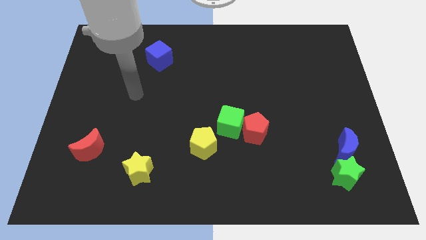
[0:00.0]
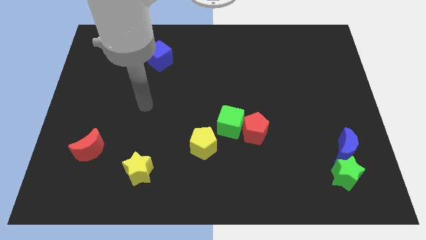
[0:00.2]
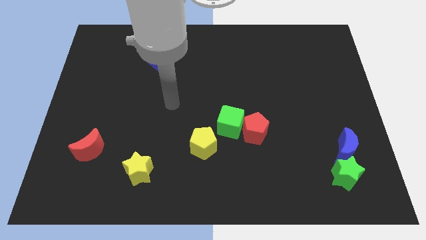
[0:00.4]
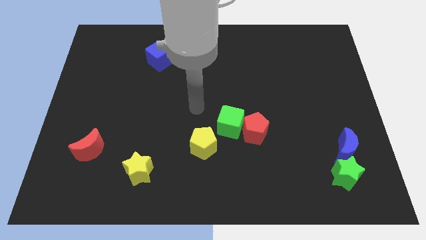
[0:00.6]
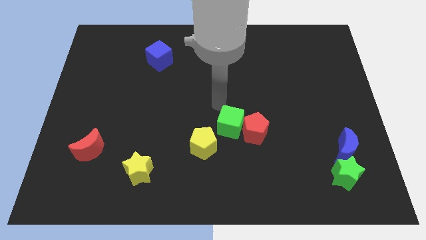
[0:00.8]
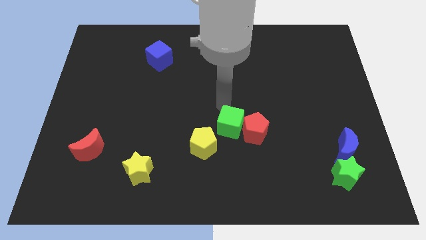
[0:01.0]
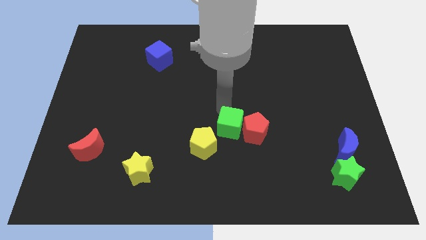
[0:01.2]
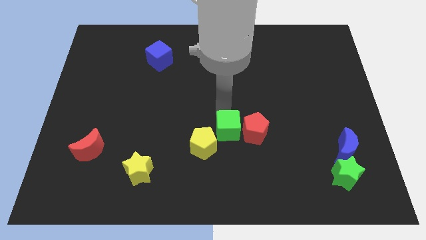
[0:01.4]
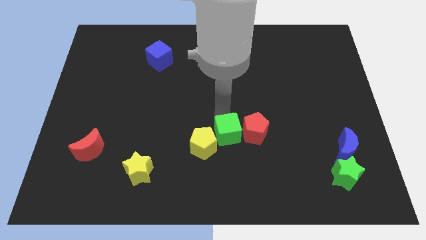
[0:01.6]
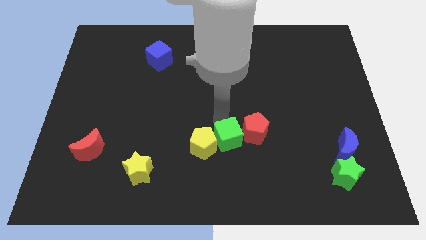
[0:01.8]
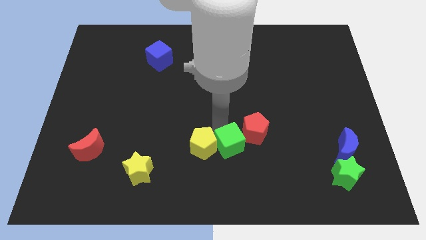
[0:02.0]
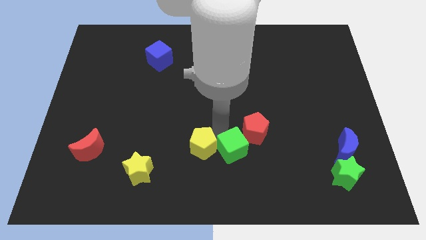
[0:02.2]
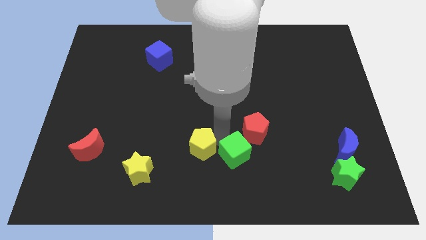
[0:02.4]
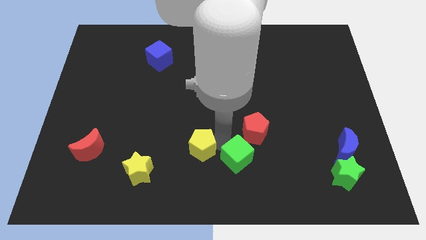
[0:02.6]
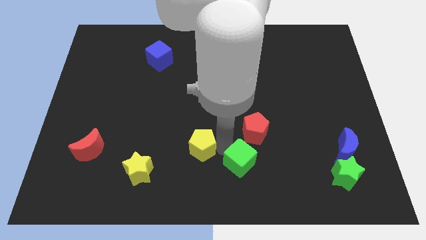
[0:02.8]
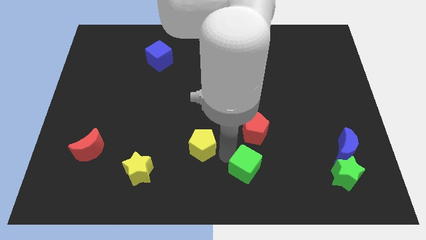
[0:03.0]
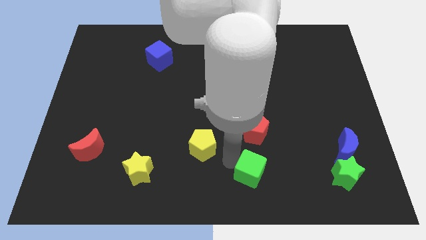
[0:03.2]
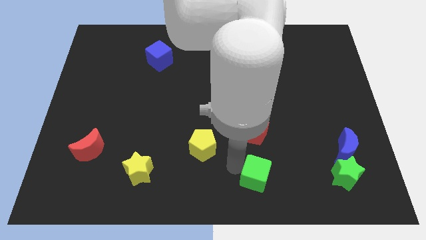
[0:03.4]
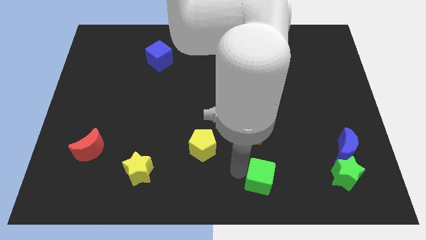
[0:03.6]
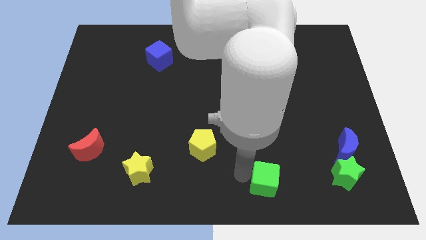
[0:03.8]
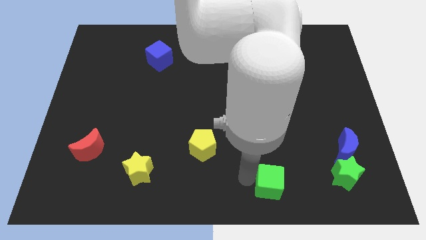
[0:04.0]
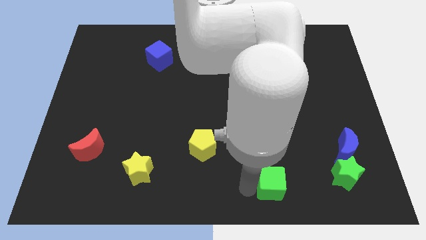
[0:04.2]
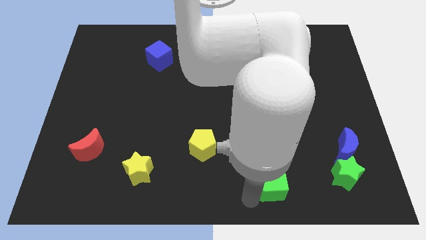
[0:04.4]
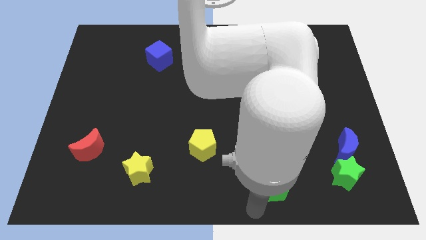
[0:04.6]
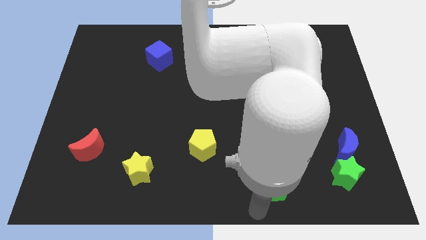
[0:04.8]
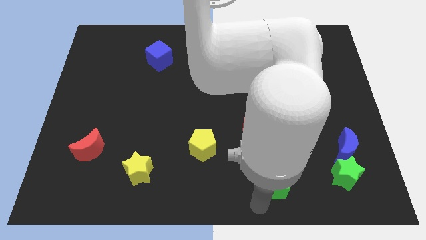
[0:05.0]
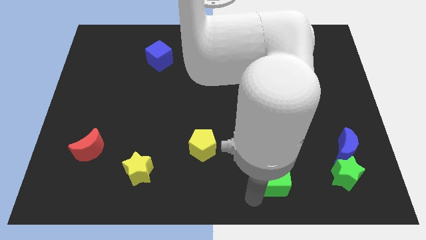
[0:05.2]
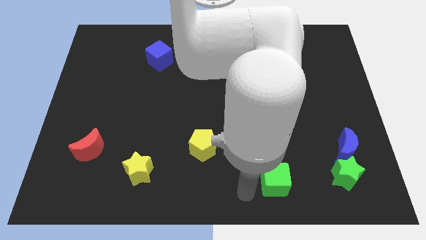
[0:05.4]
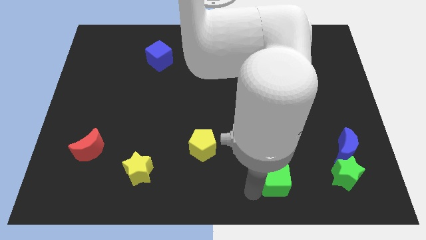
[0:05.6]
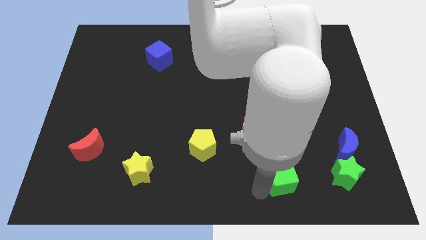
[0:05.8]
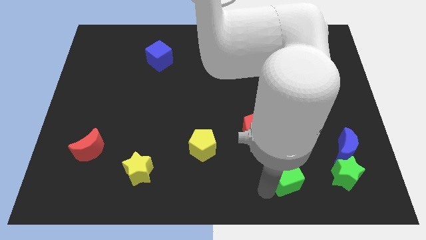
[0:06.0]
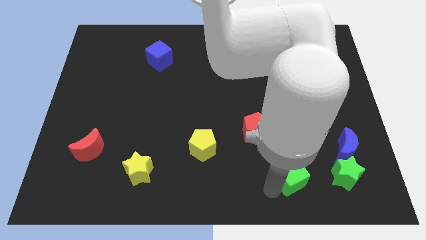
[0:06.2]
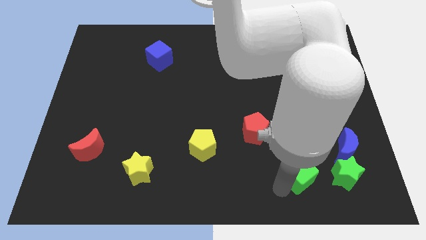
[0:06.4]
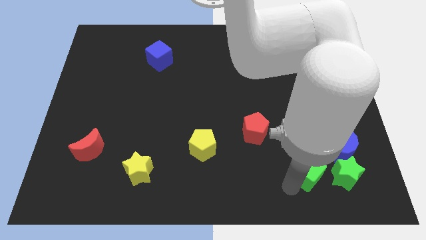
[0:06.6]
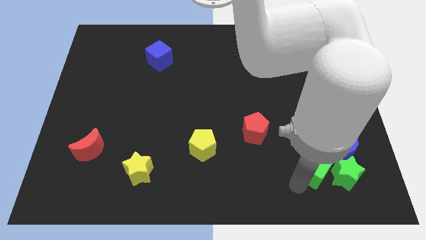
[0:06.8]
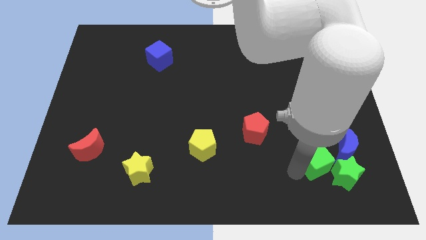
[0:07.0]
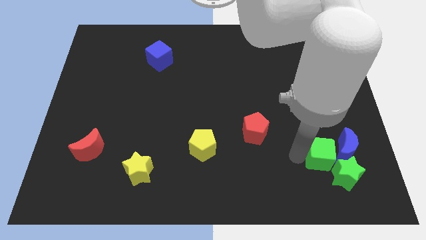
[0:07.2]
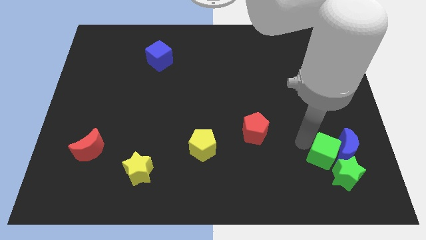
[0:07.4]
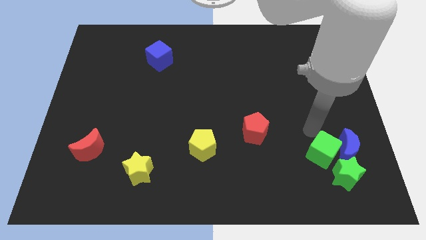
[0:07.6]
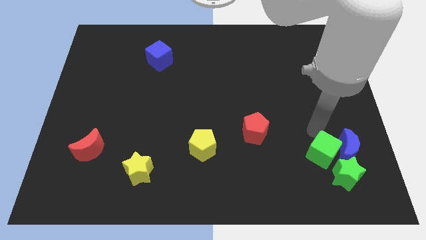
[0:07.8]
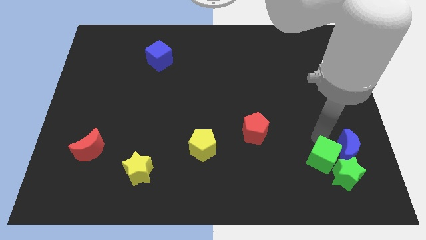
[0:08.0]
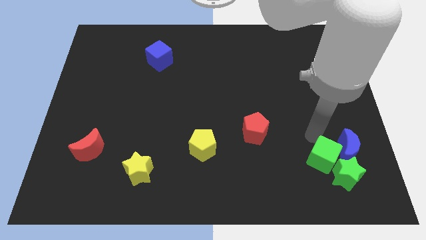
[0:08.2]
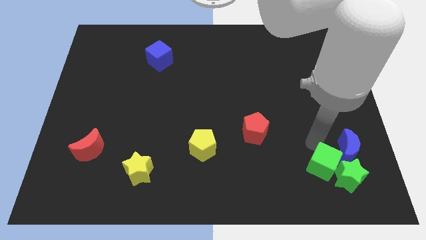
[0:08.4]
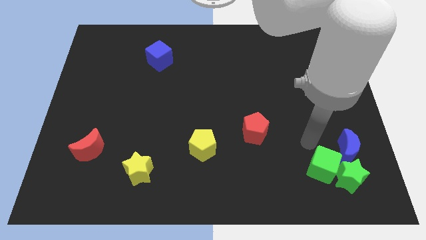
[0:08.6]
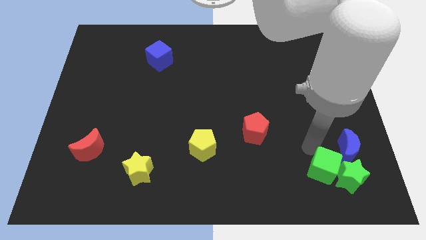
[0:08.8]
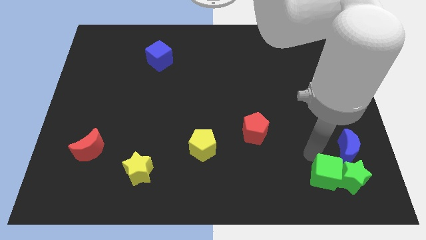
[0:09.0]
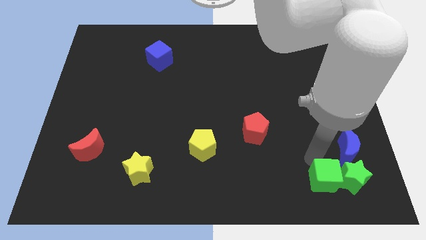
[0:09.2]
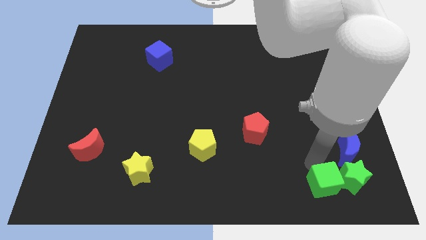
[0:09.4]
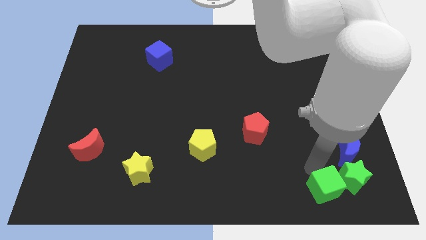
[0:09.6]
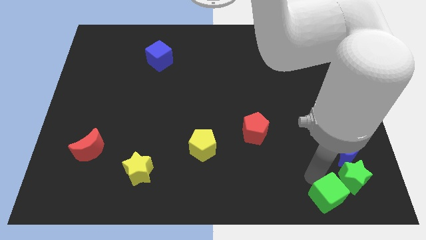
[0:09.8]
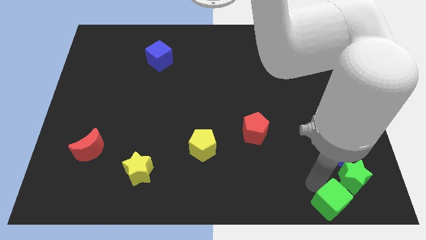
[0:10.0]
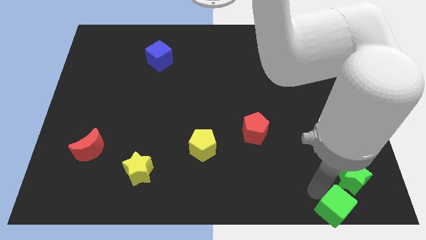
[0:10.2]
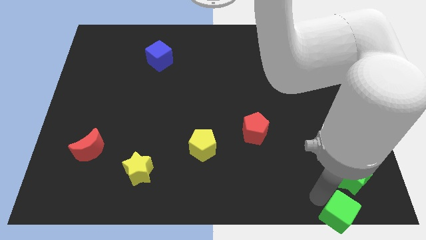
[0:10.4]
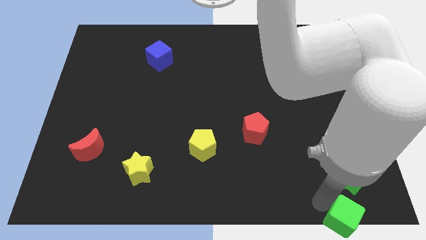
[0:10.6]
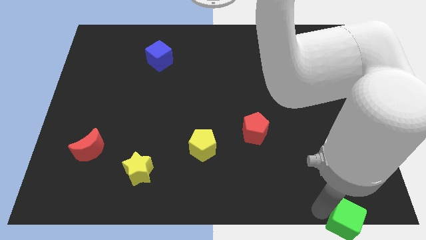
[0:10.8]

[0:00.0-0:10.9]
slide the green cube to the lower right corner

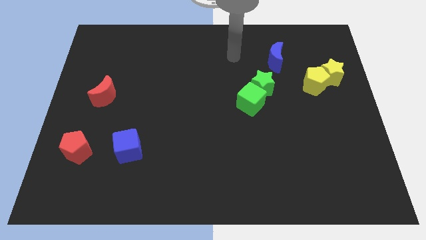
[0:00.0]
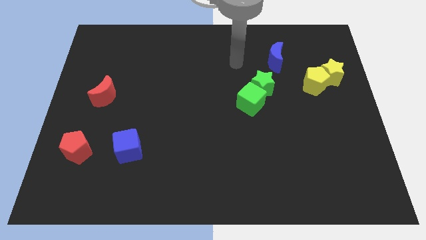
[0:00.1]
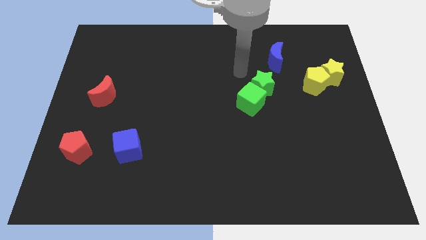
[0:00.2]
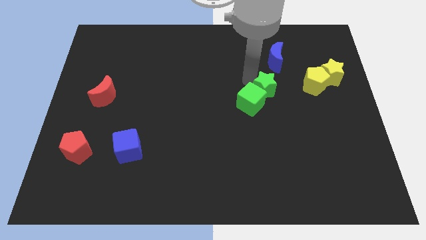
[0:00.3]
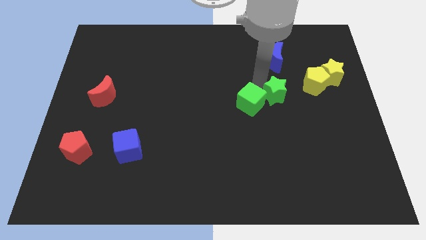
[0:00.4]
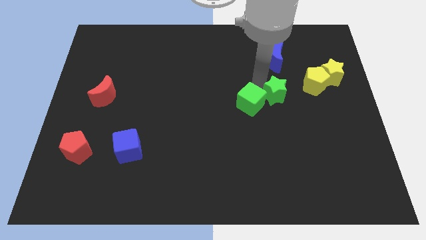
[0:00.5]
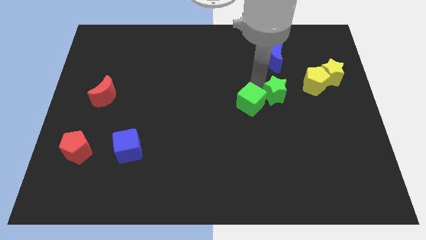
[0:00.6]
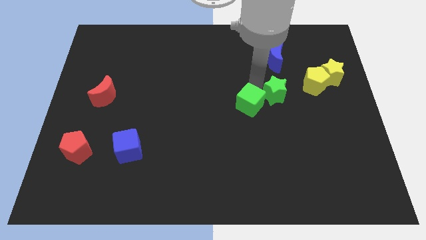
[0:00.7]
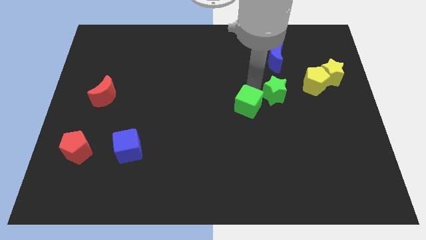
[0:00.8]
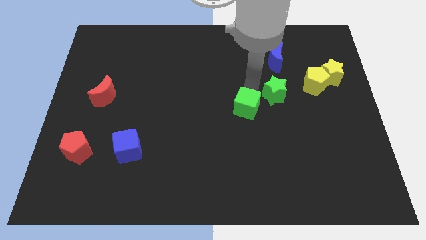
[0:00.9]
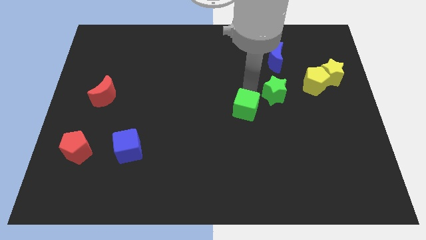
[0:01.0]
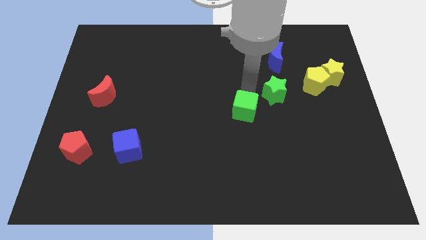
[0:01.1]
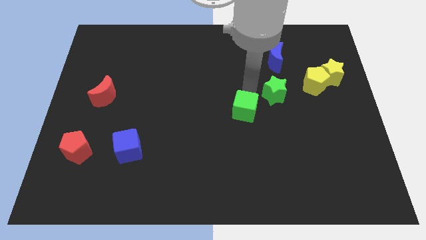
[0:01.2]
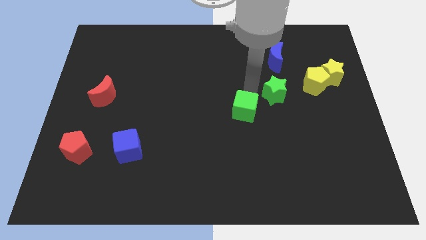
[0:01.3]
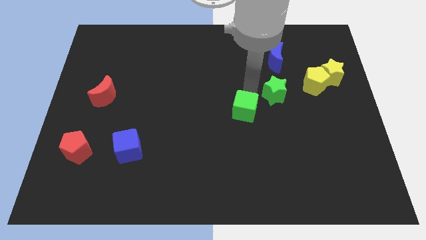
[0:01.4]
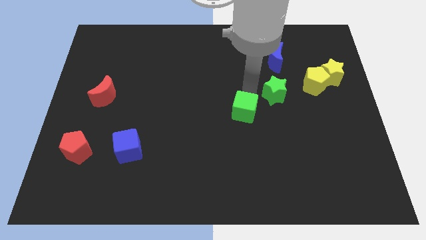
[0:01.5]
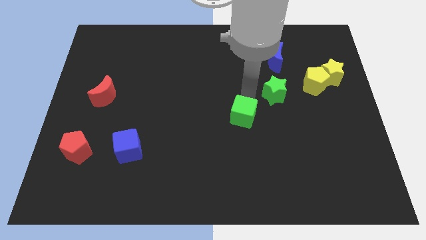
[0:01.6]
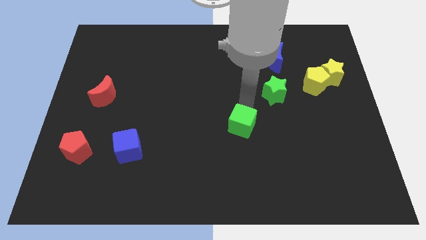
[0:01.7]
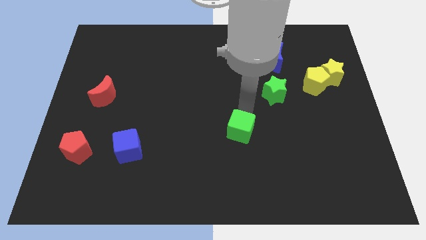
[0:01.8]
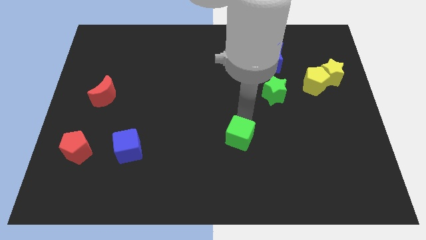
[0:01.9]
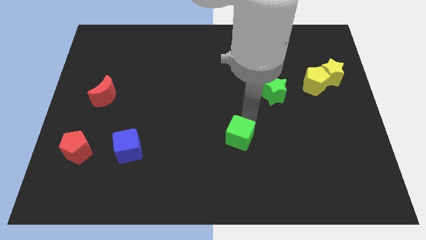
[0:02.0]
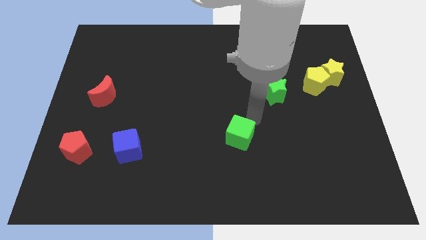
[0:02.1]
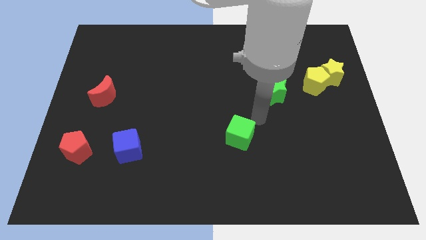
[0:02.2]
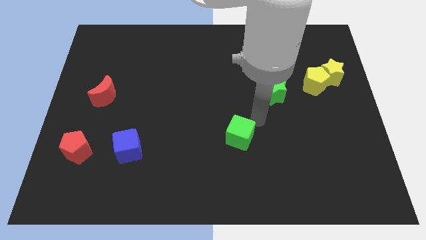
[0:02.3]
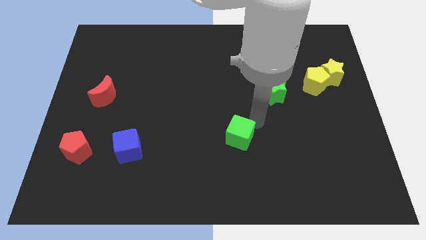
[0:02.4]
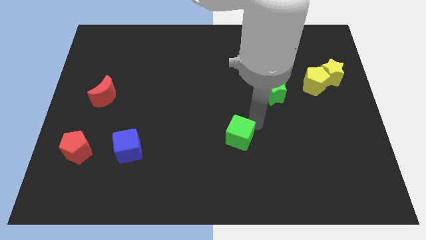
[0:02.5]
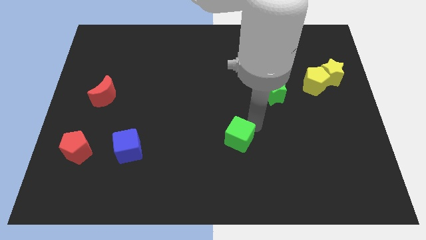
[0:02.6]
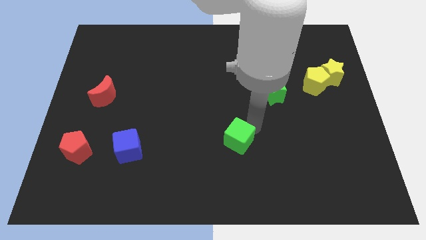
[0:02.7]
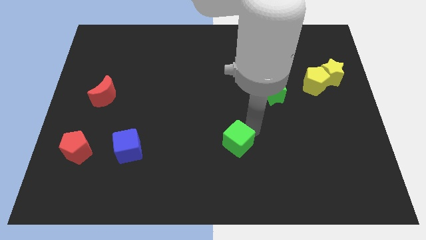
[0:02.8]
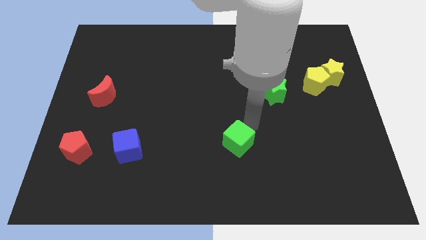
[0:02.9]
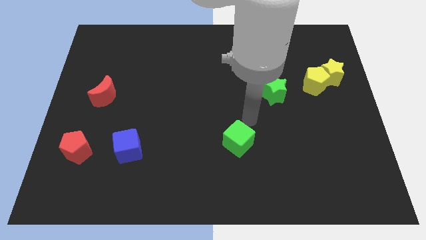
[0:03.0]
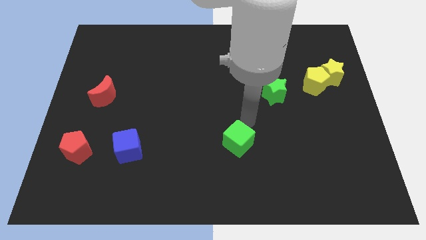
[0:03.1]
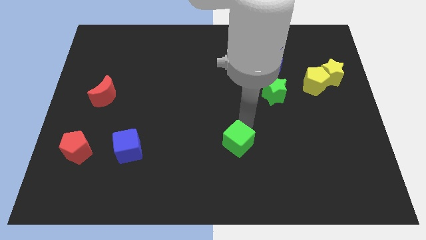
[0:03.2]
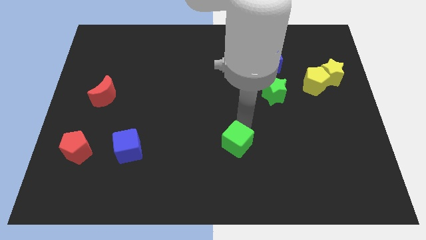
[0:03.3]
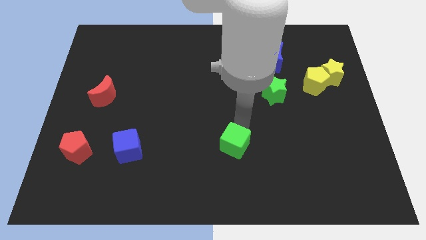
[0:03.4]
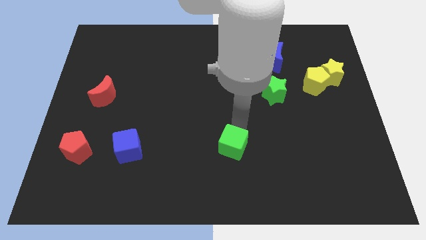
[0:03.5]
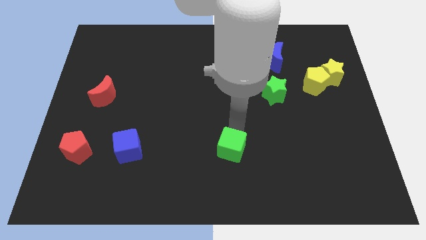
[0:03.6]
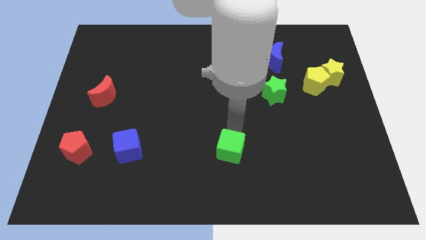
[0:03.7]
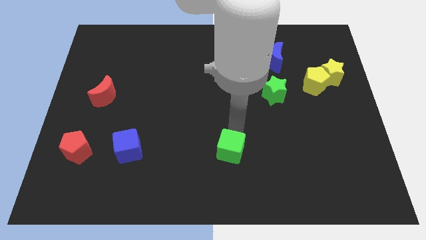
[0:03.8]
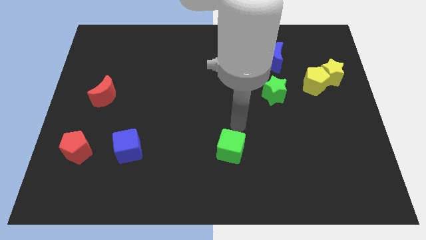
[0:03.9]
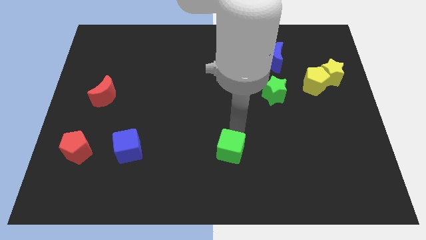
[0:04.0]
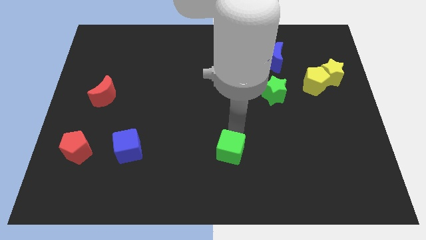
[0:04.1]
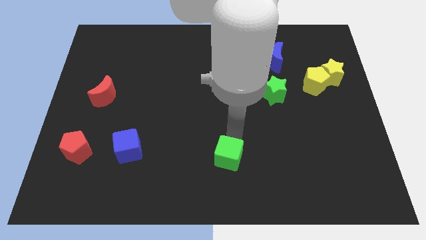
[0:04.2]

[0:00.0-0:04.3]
push the green cube to the bottom
